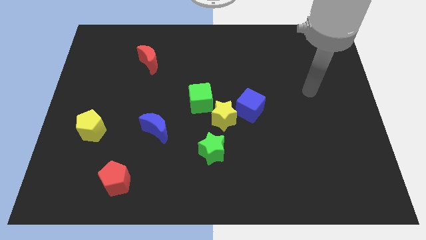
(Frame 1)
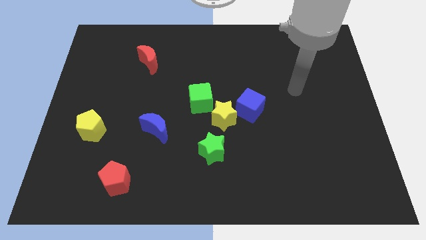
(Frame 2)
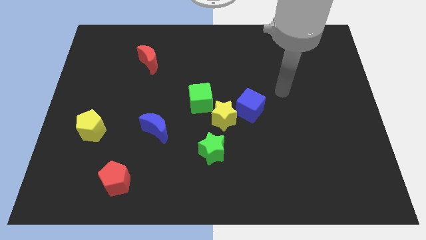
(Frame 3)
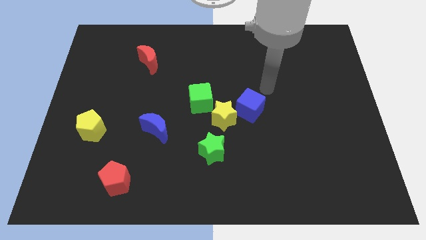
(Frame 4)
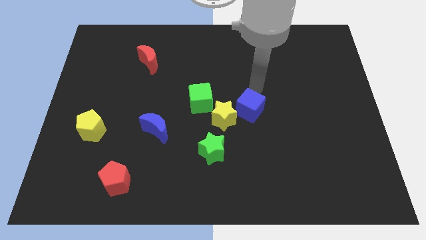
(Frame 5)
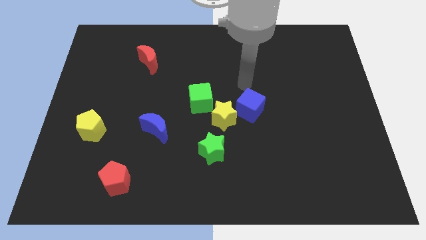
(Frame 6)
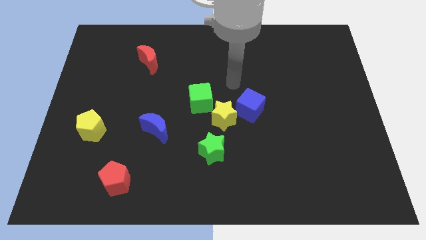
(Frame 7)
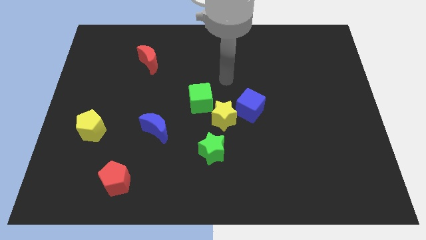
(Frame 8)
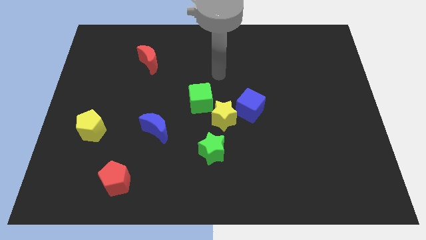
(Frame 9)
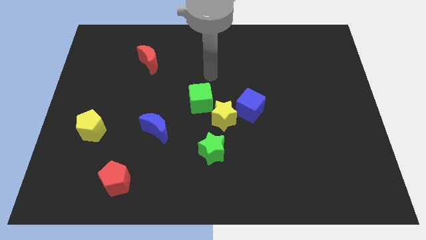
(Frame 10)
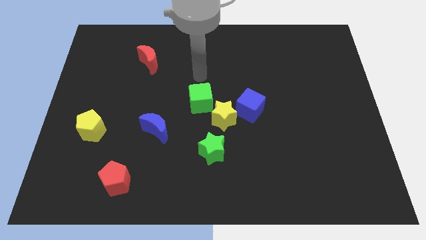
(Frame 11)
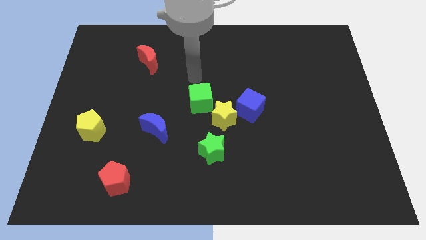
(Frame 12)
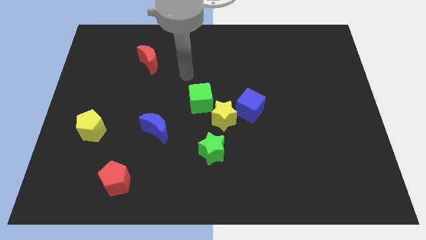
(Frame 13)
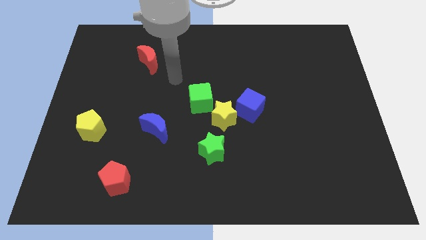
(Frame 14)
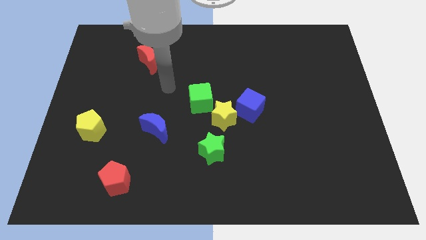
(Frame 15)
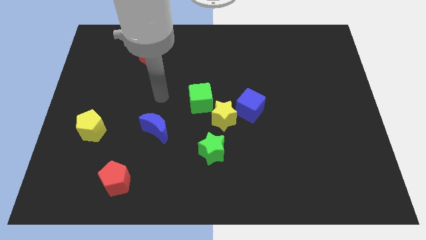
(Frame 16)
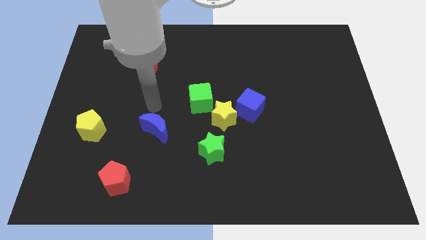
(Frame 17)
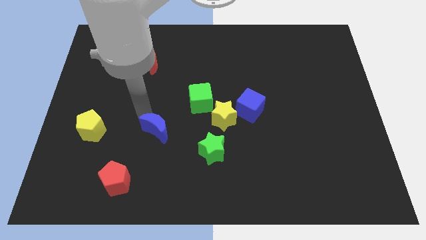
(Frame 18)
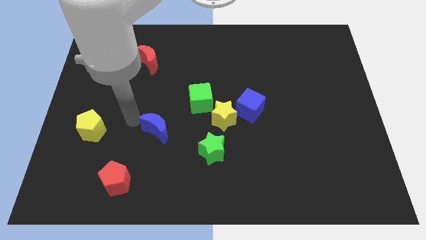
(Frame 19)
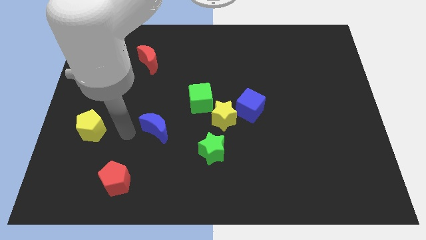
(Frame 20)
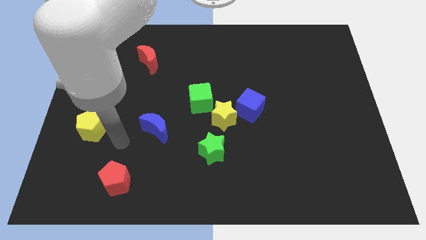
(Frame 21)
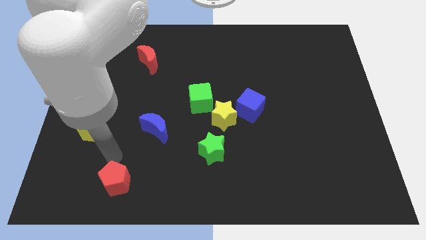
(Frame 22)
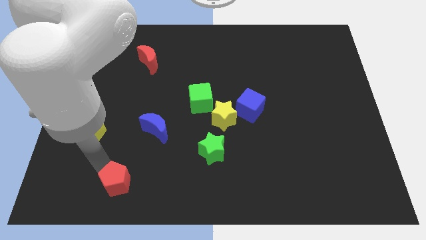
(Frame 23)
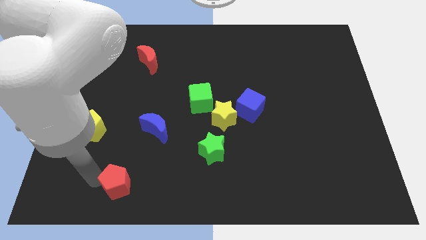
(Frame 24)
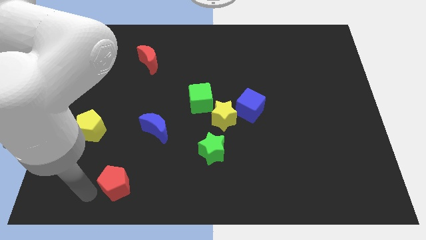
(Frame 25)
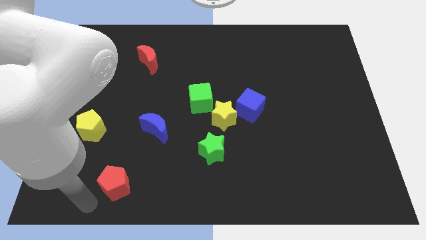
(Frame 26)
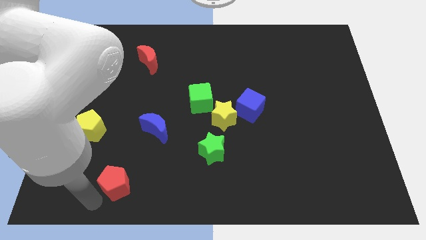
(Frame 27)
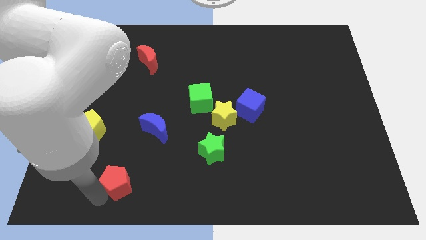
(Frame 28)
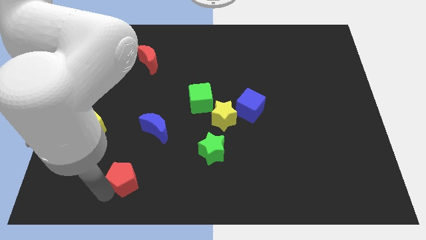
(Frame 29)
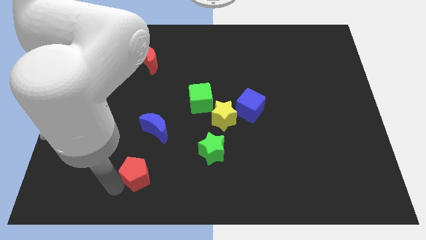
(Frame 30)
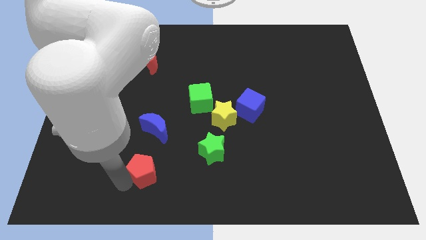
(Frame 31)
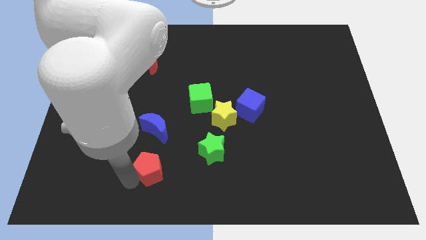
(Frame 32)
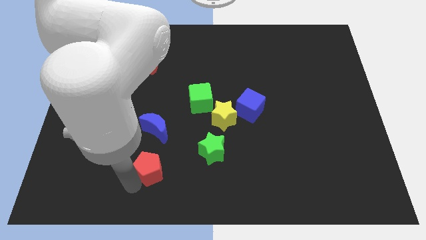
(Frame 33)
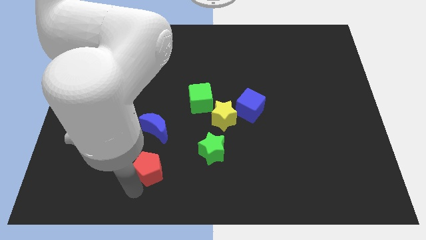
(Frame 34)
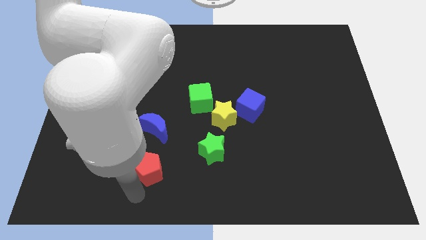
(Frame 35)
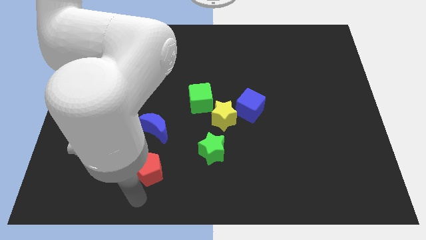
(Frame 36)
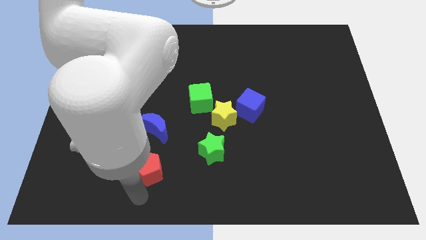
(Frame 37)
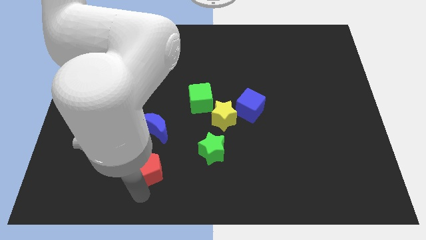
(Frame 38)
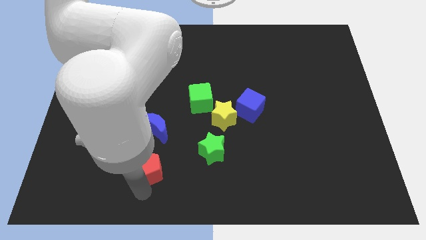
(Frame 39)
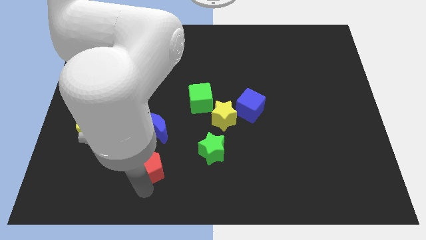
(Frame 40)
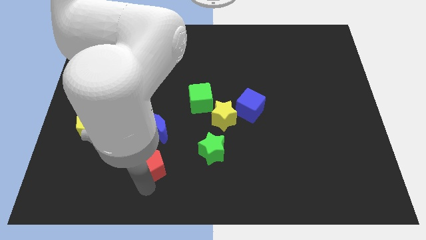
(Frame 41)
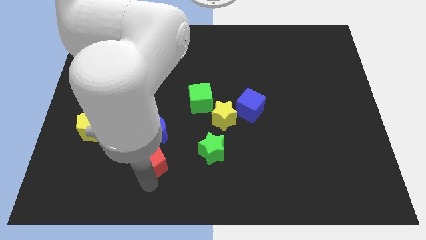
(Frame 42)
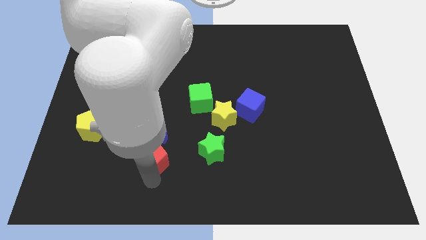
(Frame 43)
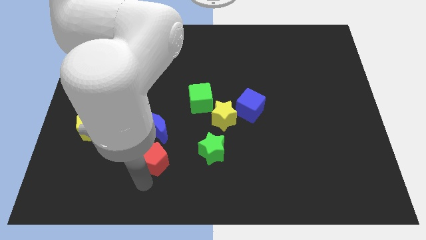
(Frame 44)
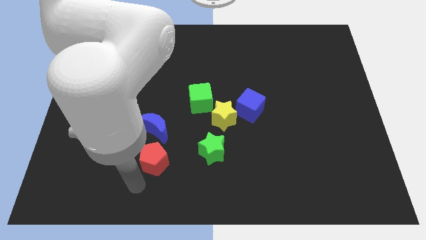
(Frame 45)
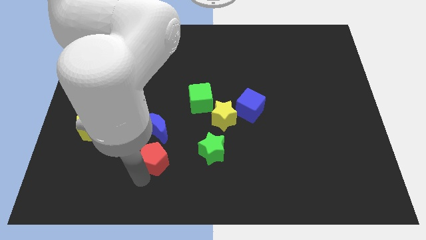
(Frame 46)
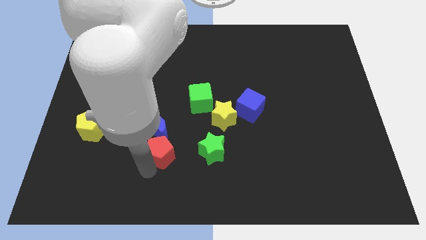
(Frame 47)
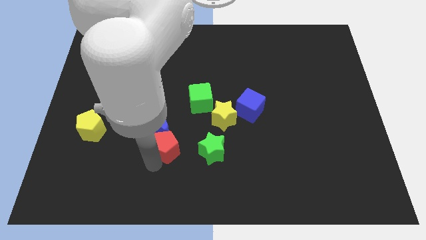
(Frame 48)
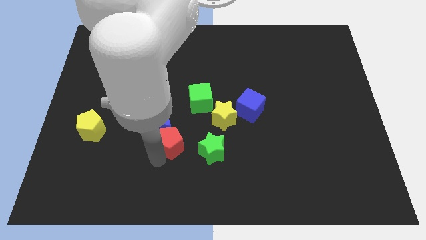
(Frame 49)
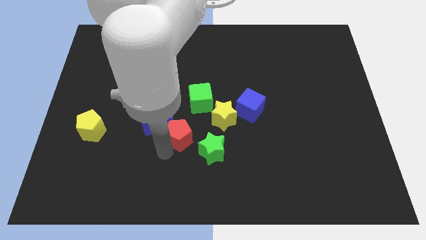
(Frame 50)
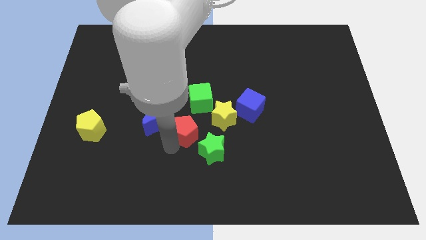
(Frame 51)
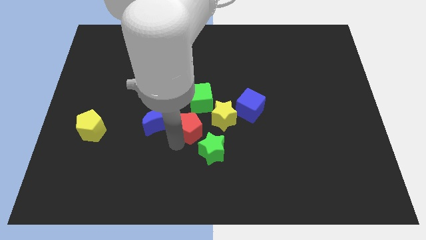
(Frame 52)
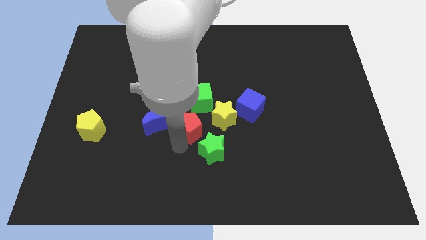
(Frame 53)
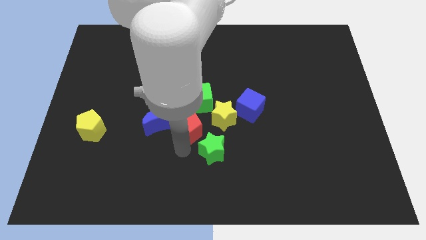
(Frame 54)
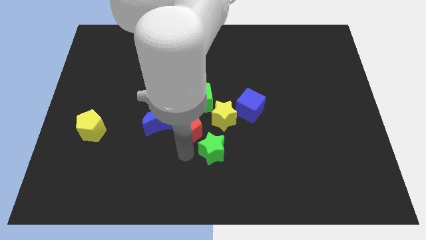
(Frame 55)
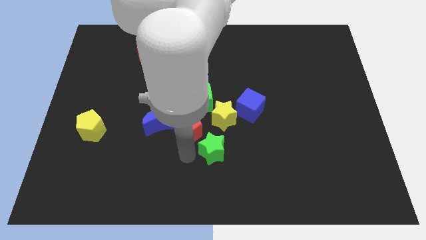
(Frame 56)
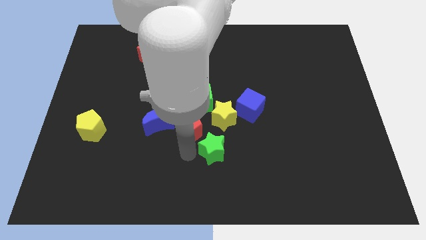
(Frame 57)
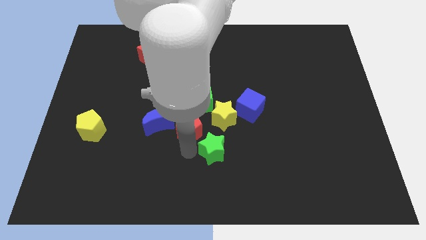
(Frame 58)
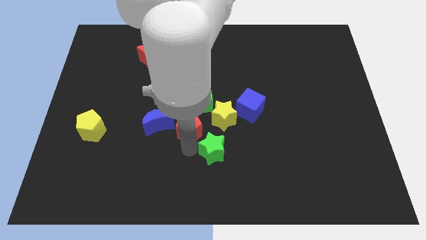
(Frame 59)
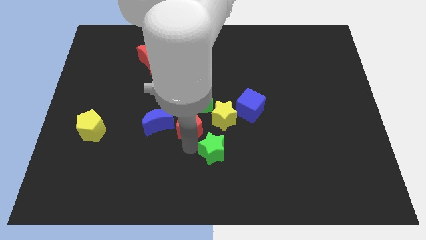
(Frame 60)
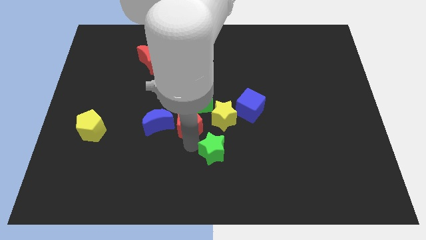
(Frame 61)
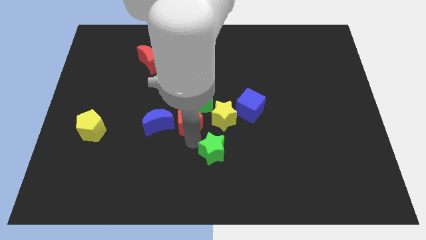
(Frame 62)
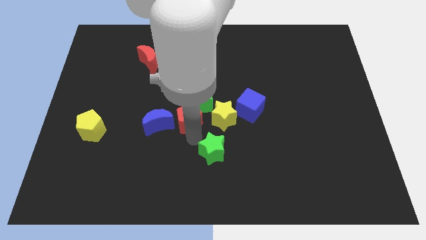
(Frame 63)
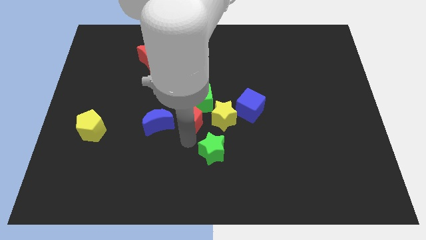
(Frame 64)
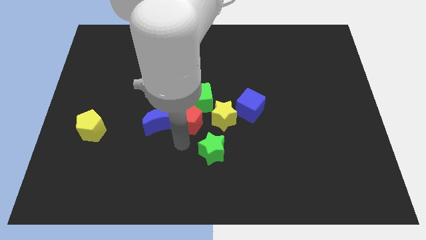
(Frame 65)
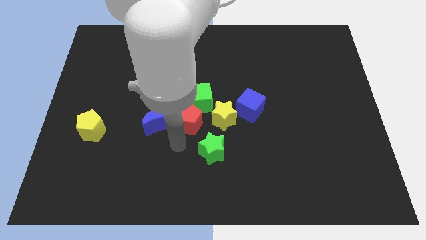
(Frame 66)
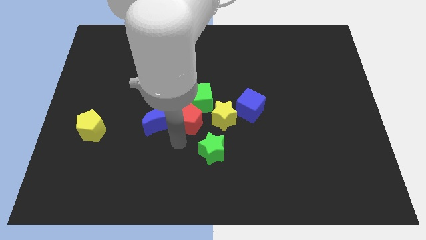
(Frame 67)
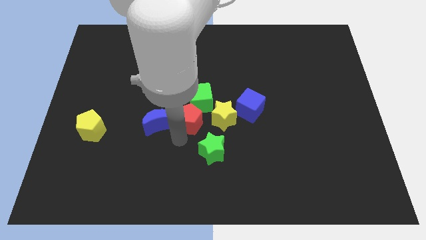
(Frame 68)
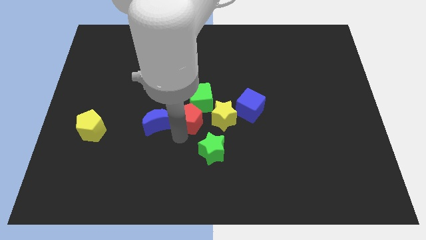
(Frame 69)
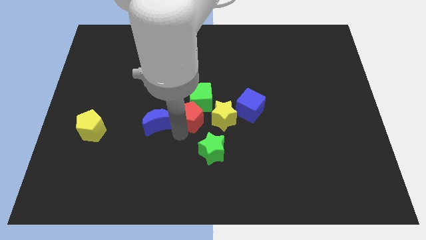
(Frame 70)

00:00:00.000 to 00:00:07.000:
slide the red pentagon next to the green cube

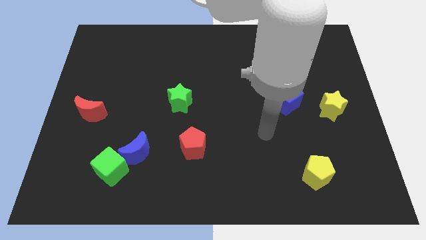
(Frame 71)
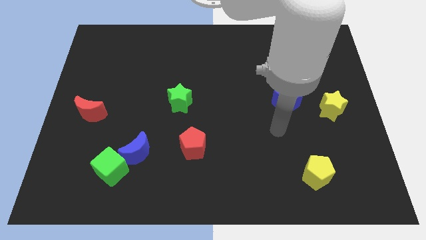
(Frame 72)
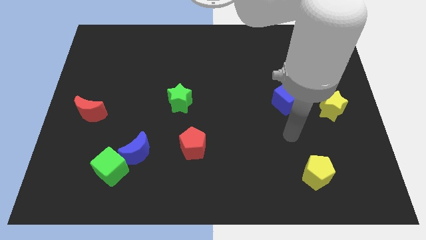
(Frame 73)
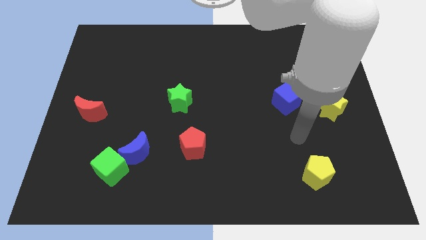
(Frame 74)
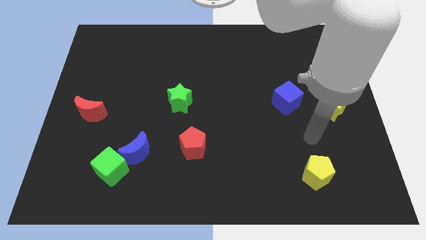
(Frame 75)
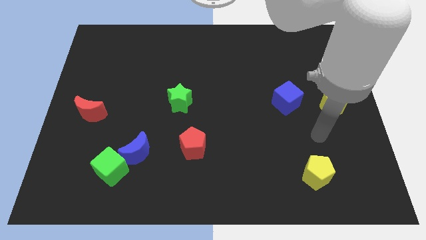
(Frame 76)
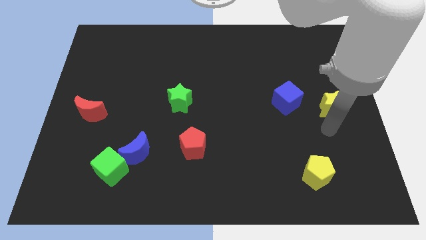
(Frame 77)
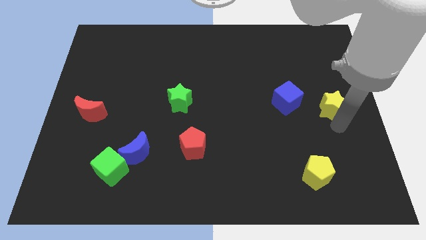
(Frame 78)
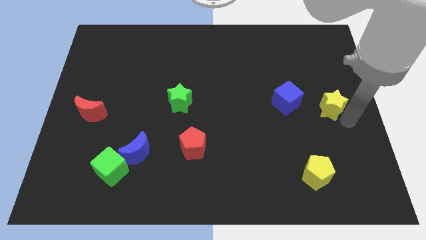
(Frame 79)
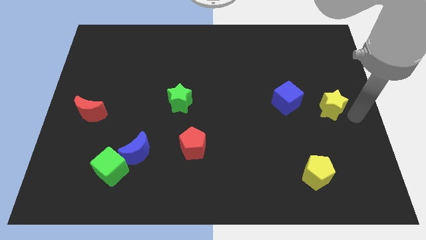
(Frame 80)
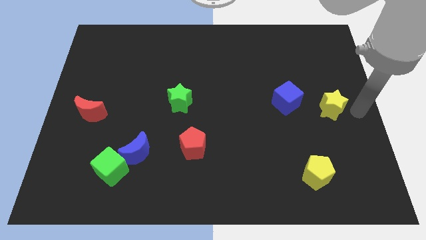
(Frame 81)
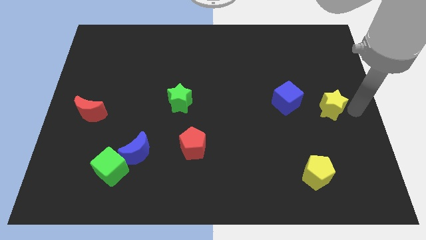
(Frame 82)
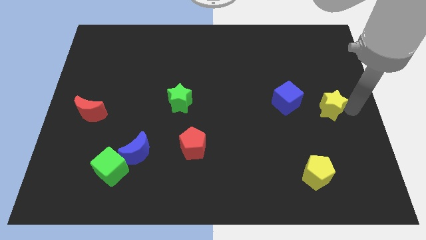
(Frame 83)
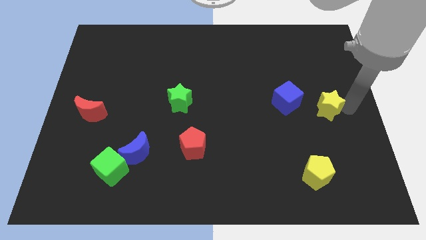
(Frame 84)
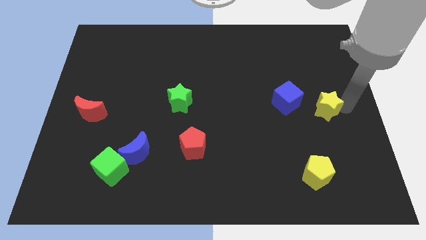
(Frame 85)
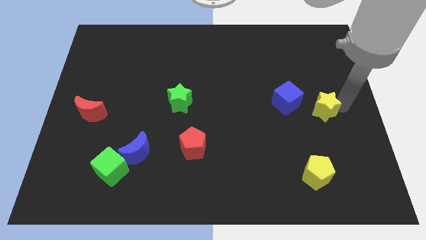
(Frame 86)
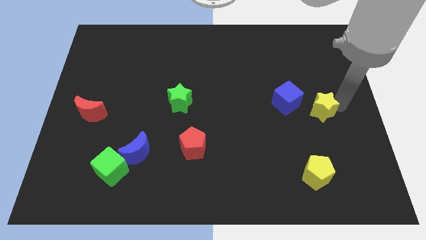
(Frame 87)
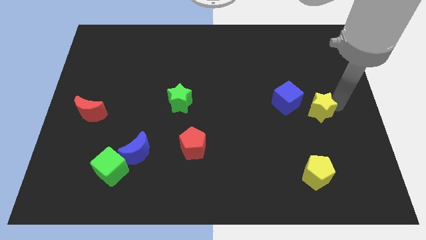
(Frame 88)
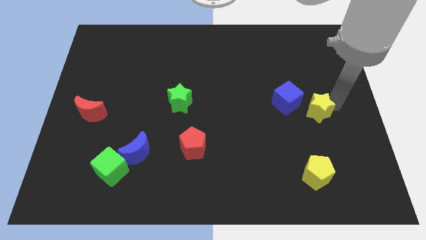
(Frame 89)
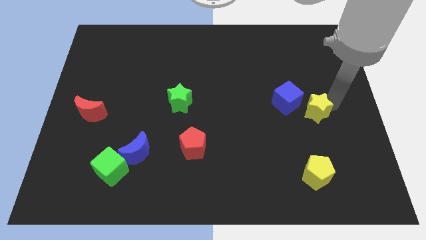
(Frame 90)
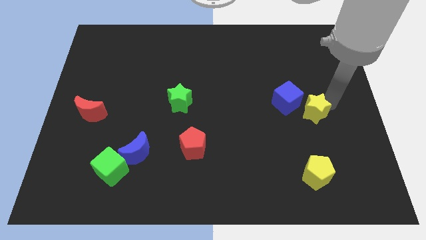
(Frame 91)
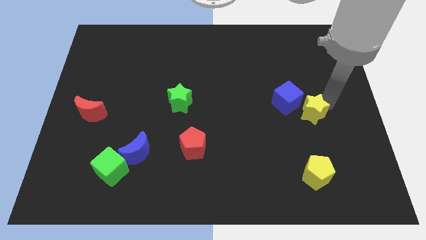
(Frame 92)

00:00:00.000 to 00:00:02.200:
move the yellow star towards the blue cube
